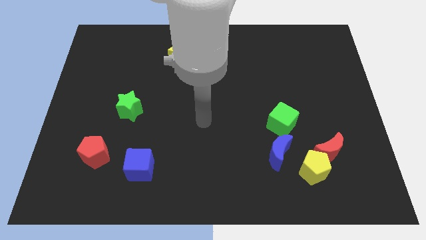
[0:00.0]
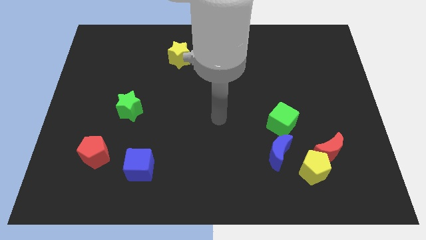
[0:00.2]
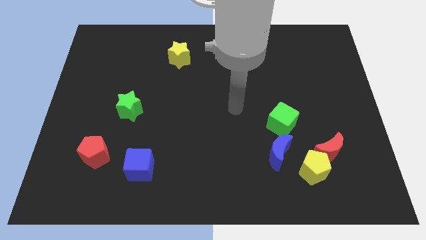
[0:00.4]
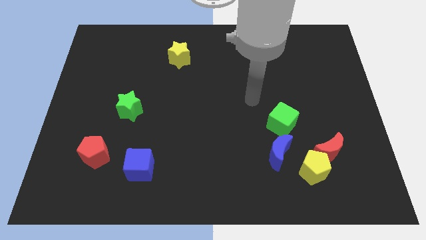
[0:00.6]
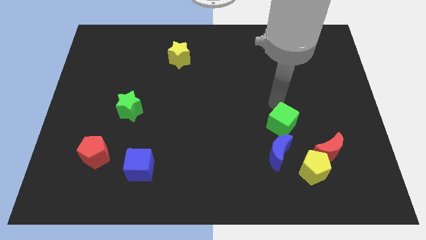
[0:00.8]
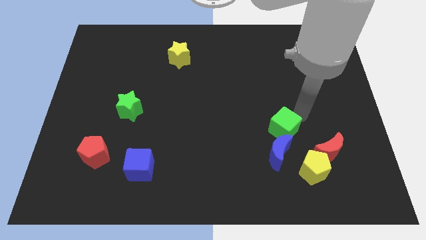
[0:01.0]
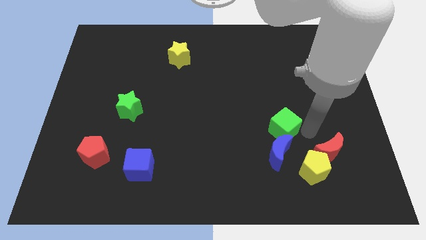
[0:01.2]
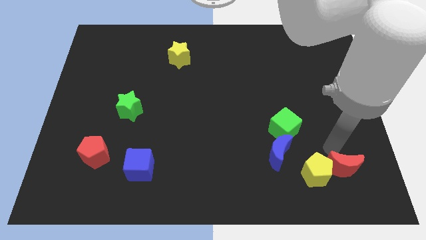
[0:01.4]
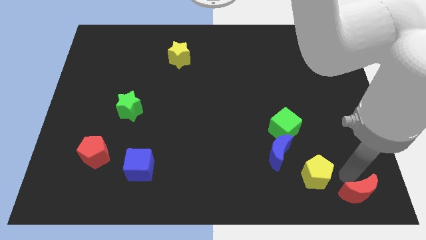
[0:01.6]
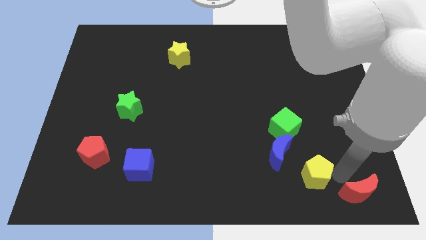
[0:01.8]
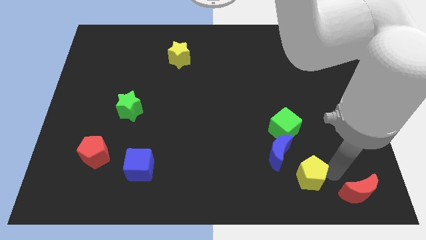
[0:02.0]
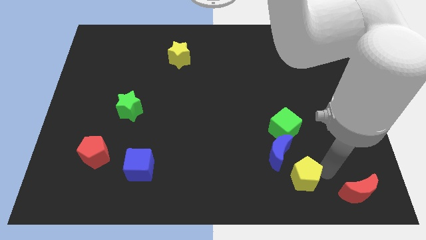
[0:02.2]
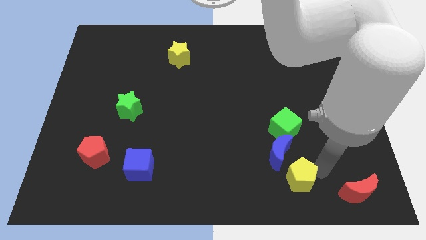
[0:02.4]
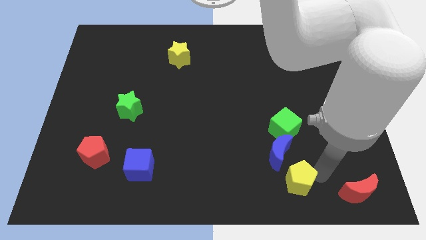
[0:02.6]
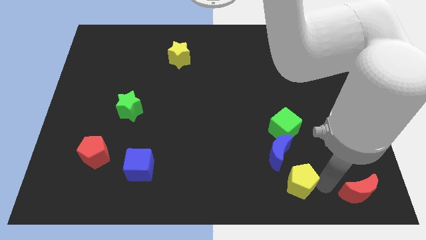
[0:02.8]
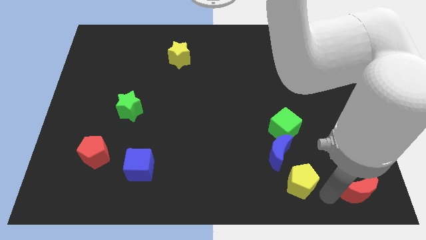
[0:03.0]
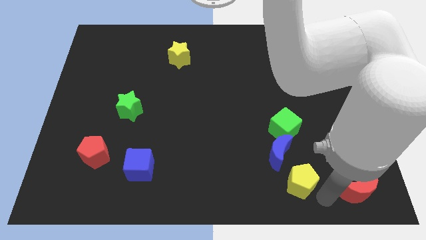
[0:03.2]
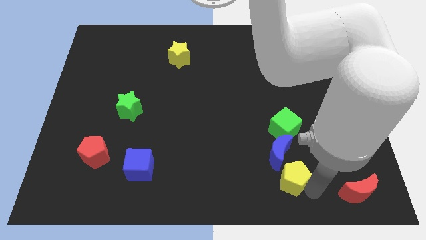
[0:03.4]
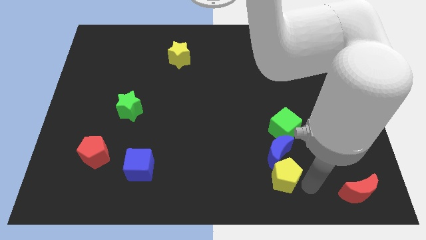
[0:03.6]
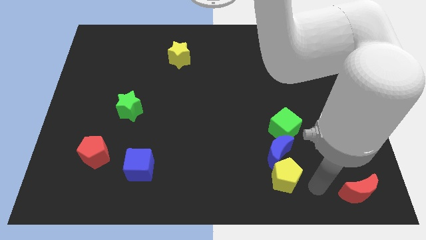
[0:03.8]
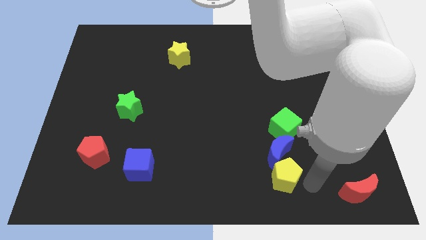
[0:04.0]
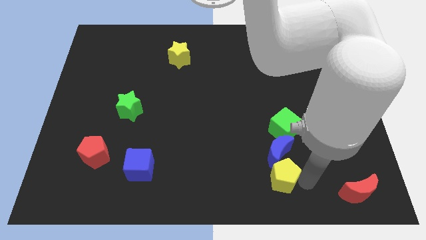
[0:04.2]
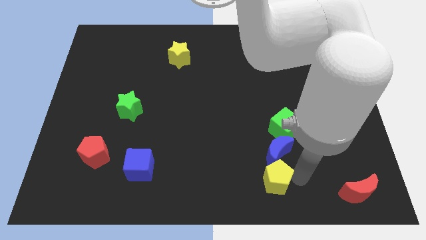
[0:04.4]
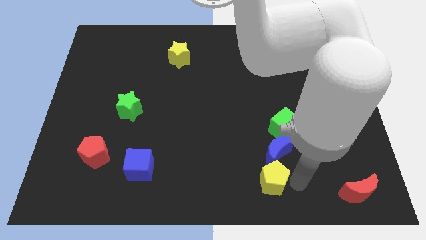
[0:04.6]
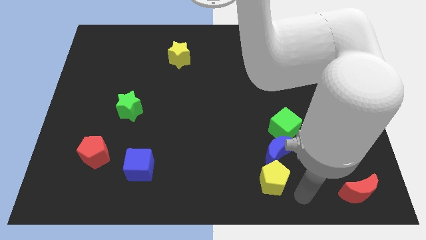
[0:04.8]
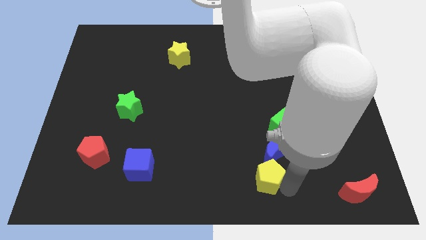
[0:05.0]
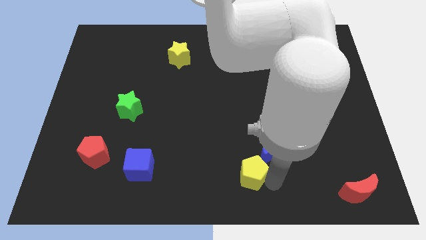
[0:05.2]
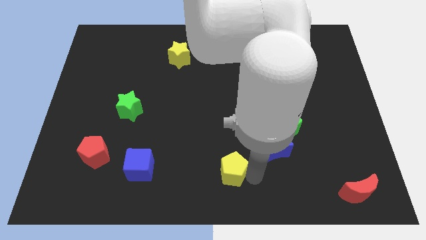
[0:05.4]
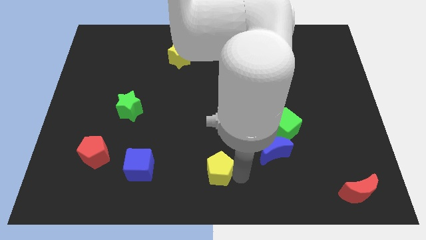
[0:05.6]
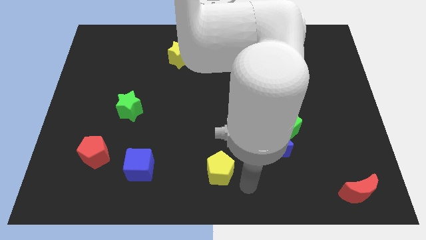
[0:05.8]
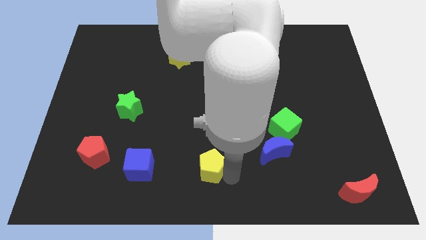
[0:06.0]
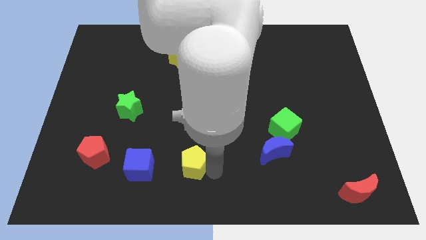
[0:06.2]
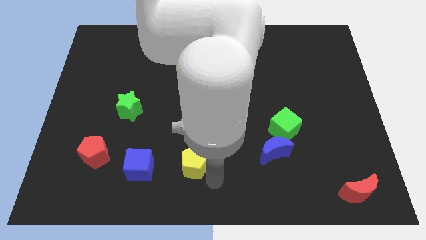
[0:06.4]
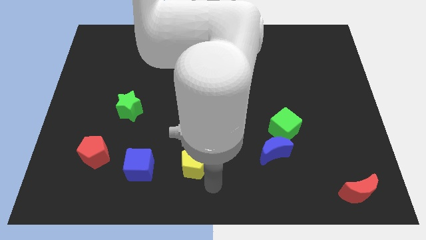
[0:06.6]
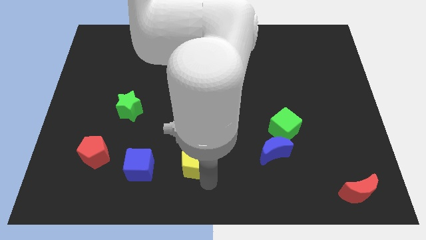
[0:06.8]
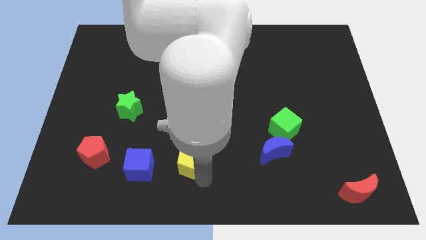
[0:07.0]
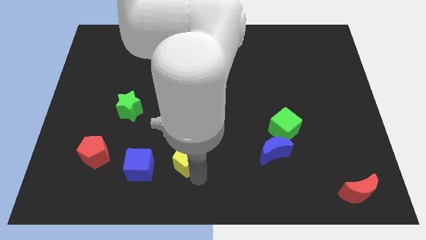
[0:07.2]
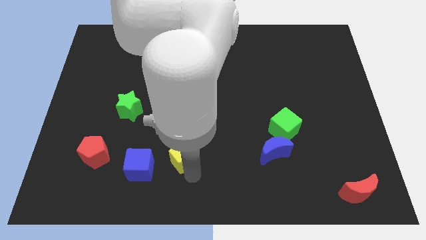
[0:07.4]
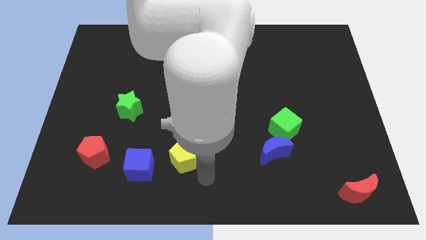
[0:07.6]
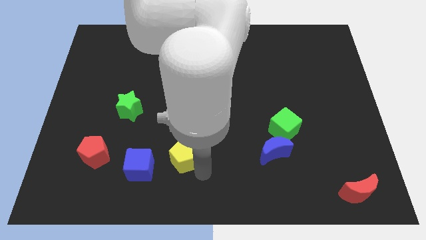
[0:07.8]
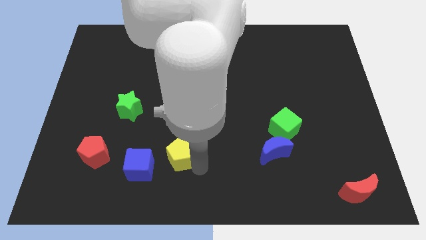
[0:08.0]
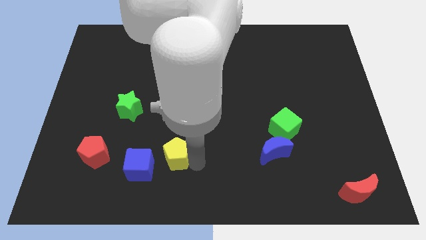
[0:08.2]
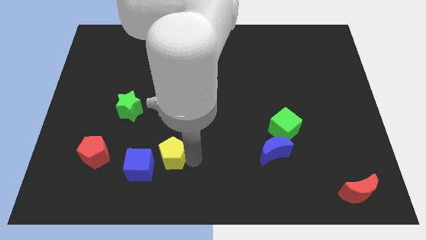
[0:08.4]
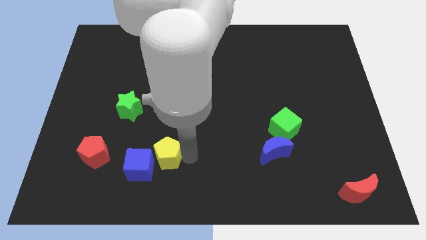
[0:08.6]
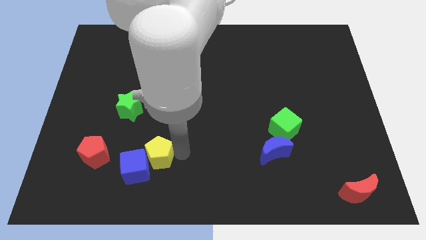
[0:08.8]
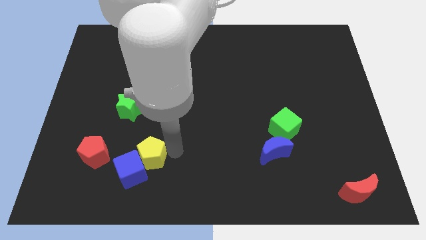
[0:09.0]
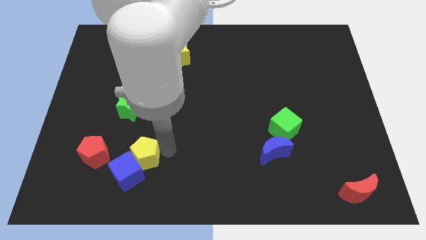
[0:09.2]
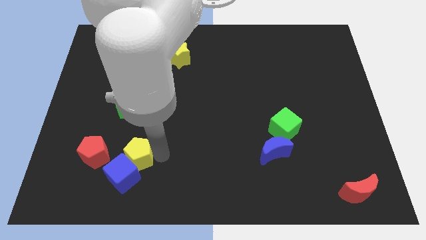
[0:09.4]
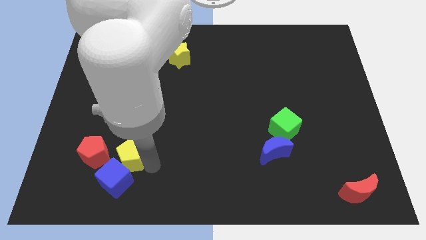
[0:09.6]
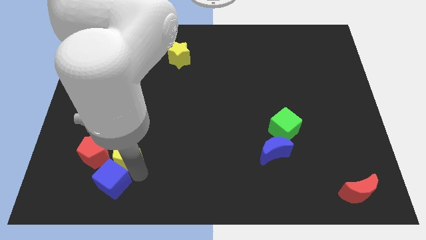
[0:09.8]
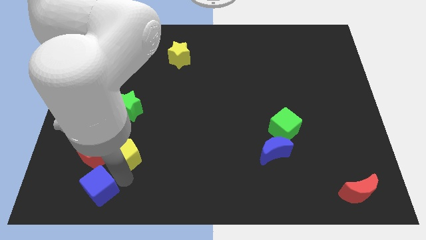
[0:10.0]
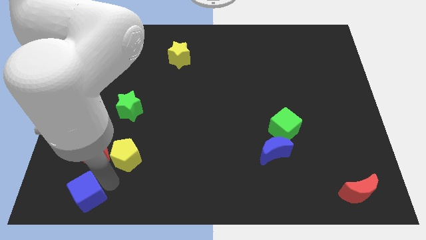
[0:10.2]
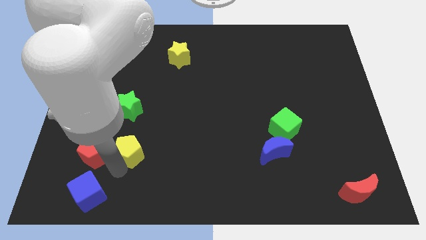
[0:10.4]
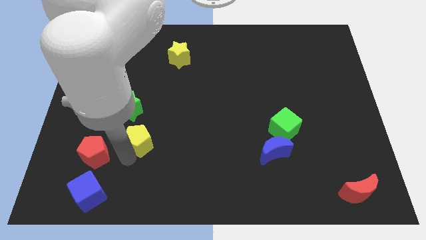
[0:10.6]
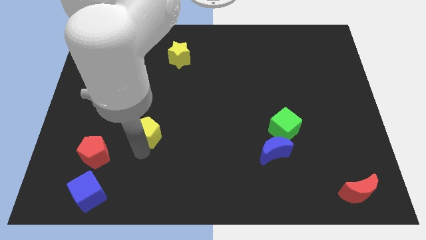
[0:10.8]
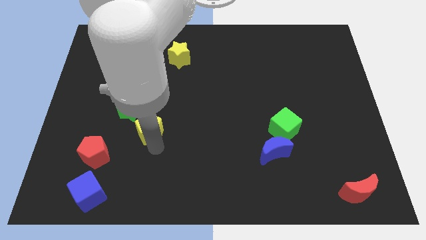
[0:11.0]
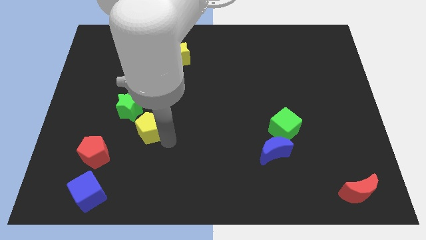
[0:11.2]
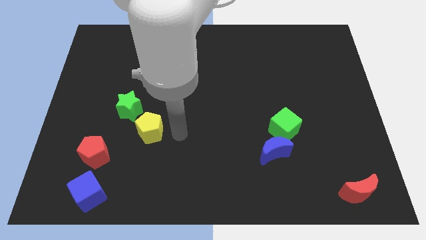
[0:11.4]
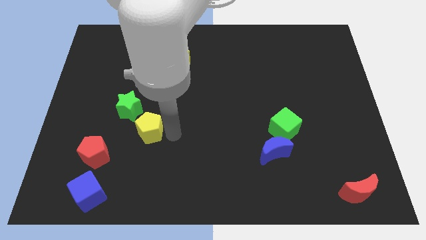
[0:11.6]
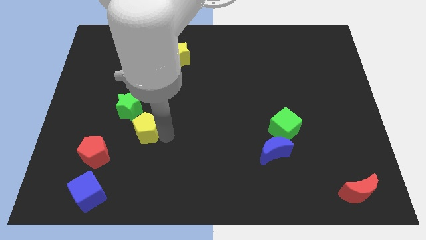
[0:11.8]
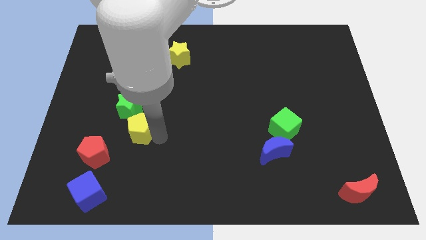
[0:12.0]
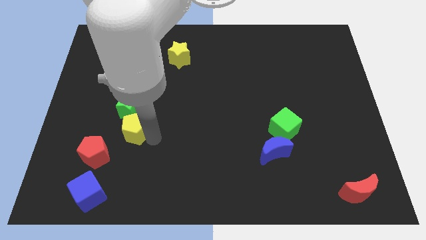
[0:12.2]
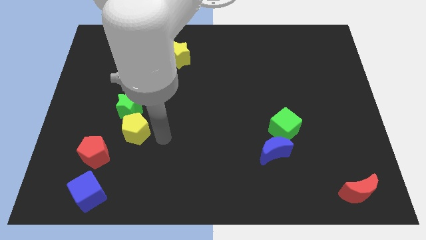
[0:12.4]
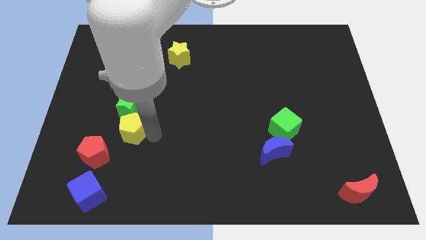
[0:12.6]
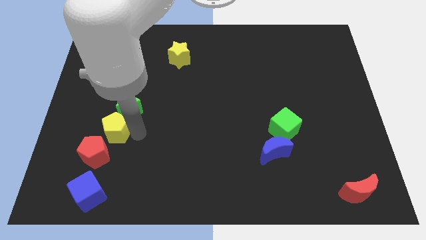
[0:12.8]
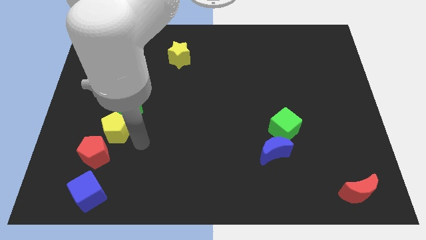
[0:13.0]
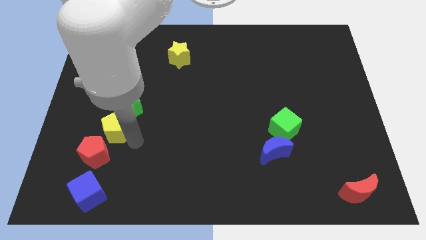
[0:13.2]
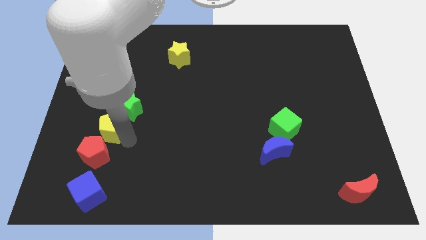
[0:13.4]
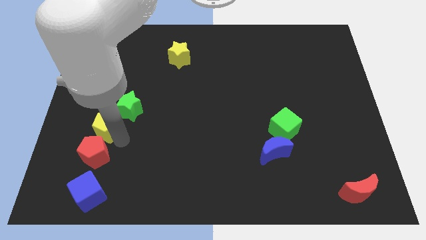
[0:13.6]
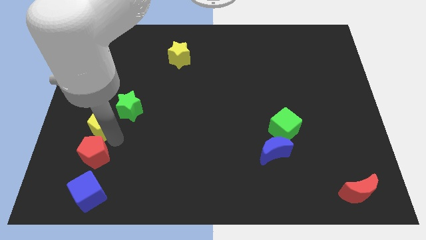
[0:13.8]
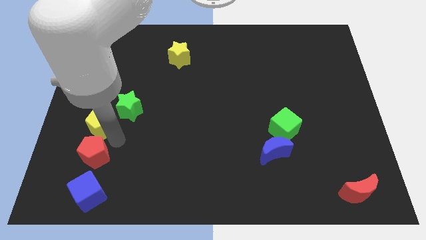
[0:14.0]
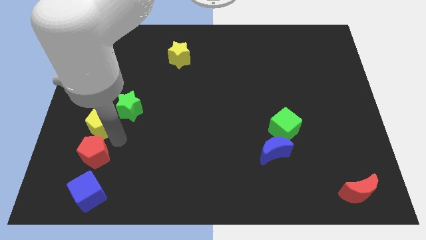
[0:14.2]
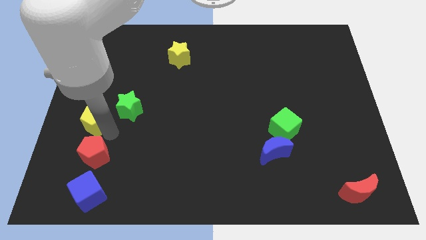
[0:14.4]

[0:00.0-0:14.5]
push the yellow pentagon to the center left
